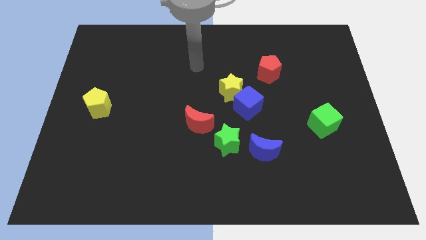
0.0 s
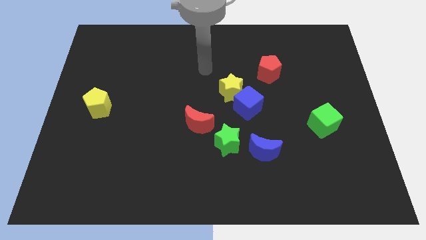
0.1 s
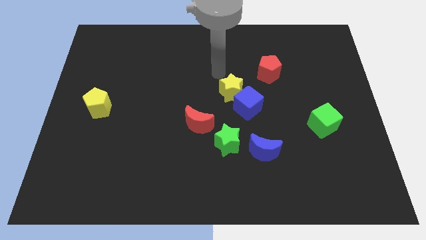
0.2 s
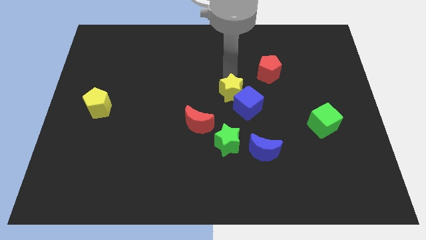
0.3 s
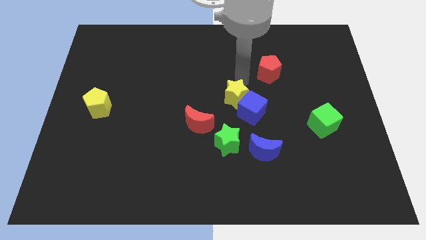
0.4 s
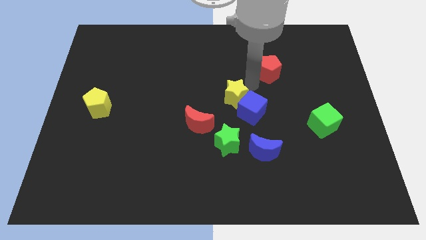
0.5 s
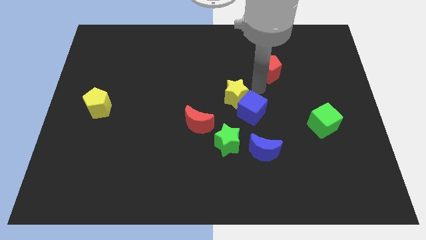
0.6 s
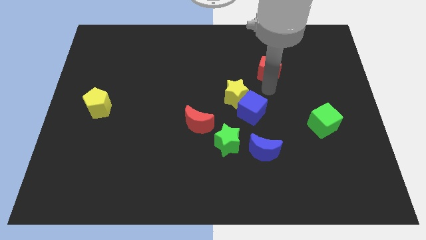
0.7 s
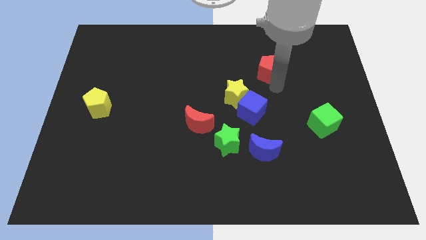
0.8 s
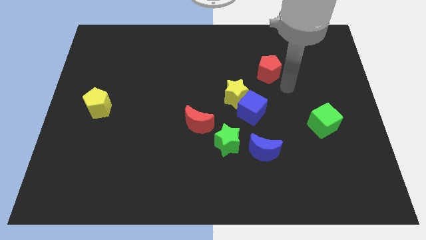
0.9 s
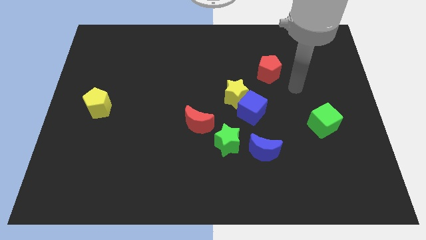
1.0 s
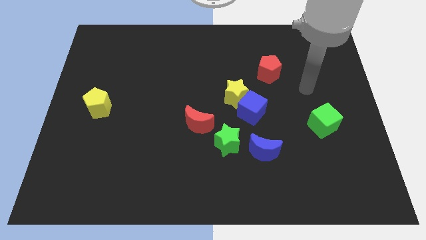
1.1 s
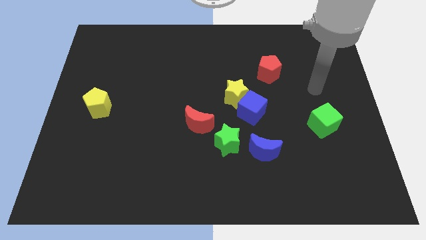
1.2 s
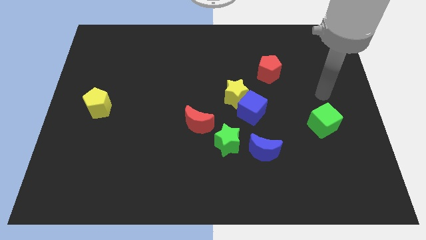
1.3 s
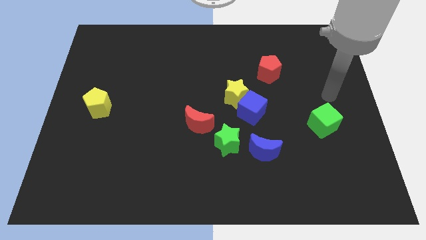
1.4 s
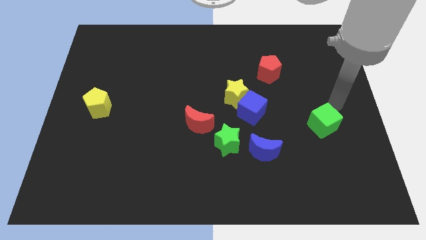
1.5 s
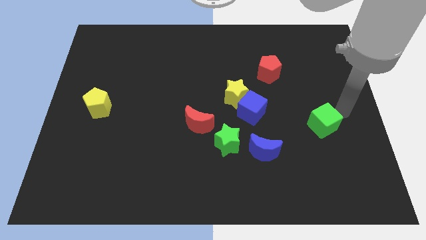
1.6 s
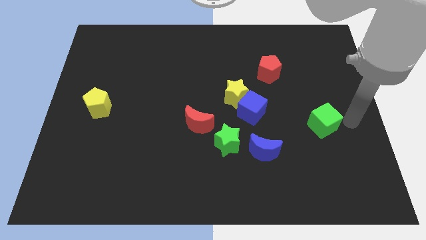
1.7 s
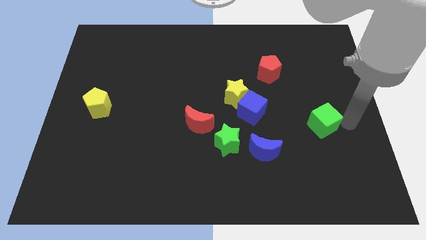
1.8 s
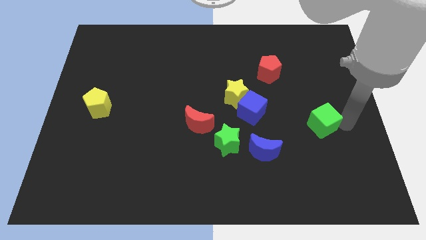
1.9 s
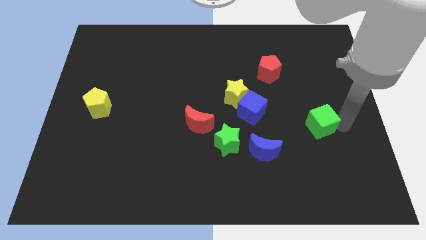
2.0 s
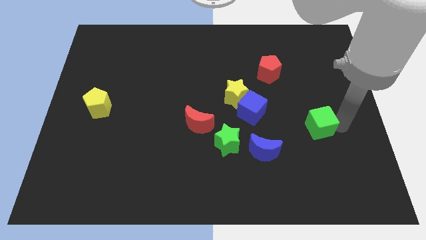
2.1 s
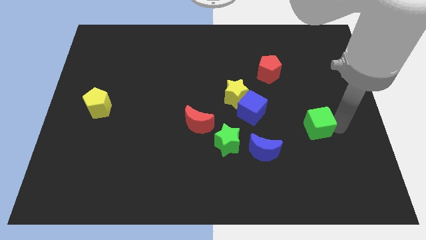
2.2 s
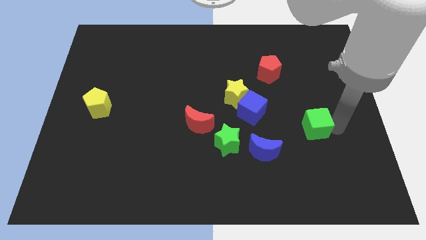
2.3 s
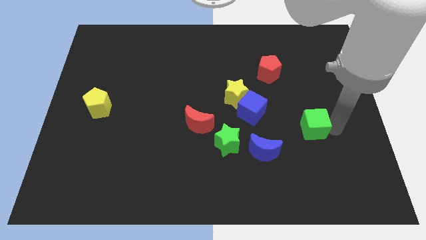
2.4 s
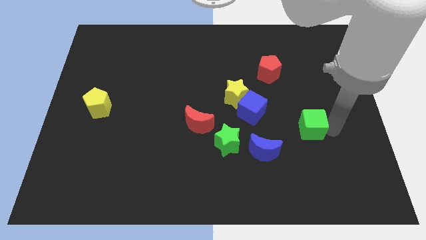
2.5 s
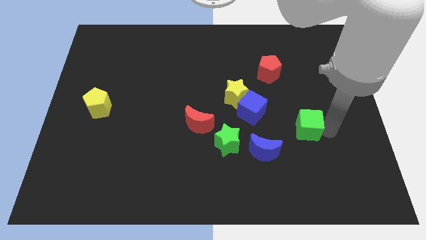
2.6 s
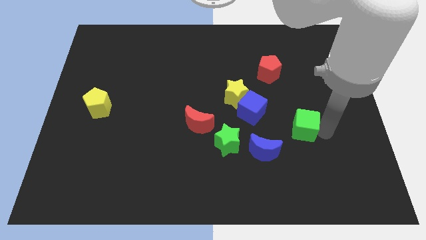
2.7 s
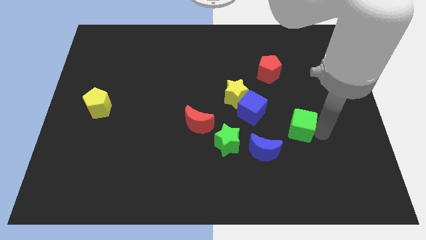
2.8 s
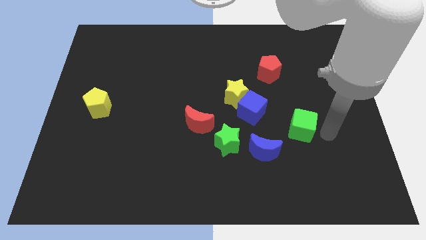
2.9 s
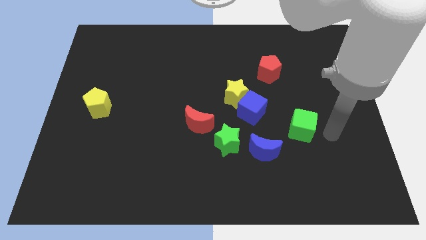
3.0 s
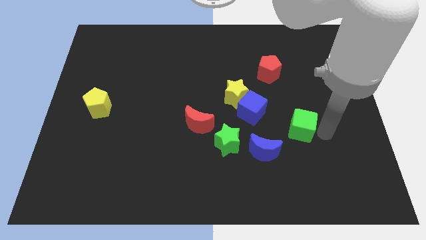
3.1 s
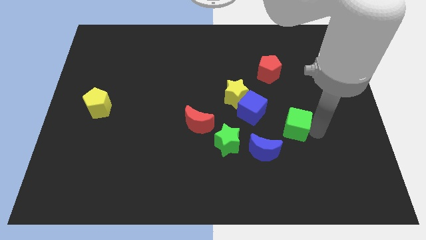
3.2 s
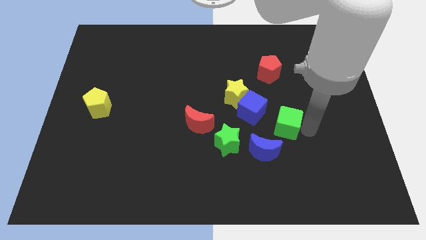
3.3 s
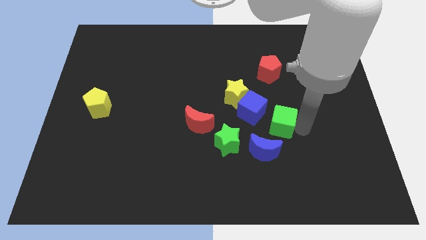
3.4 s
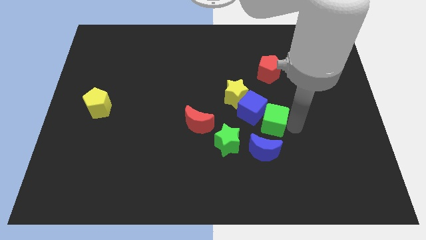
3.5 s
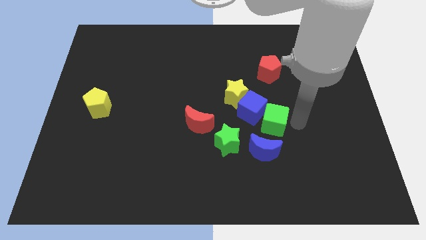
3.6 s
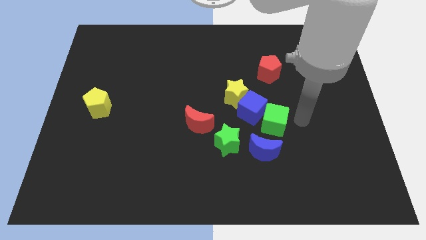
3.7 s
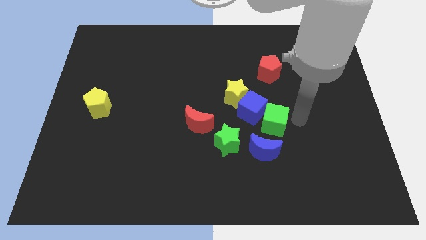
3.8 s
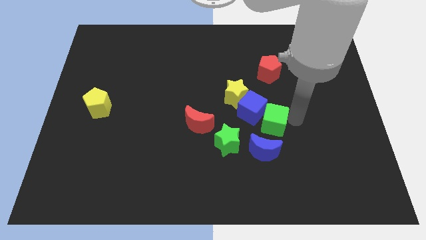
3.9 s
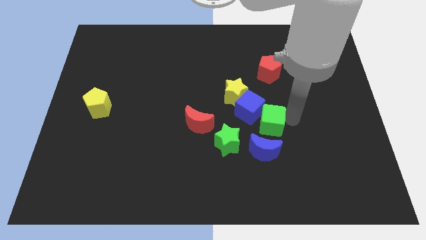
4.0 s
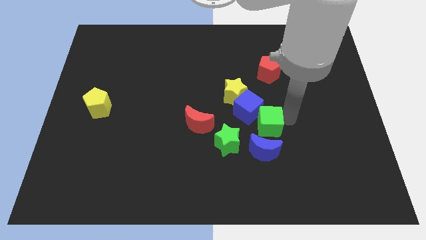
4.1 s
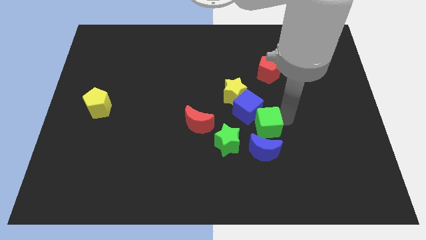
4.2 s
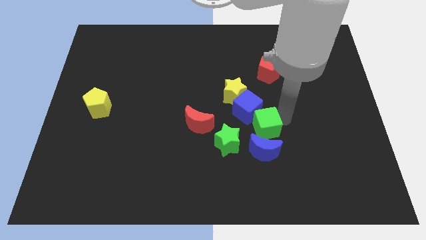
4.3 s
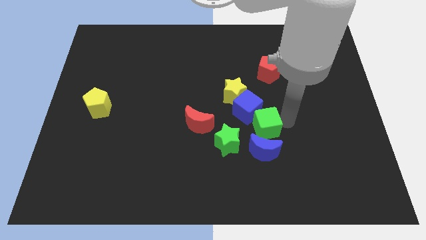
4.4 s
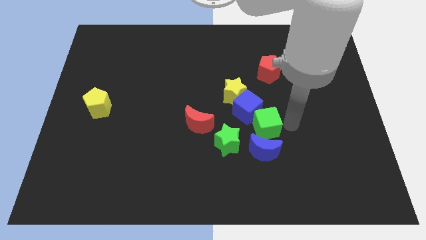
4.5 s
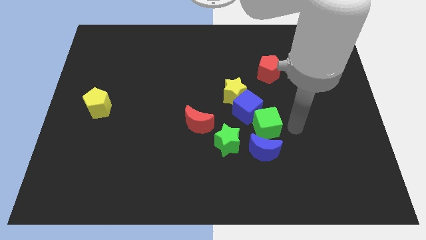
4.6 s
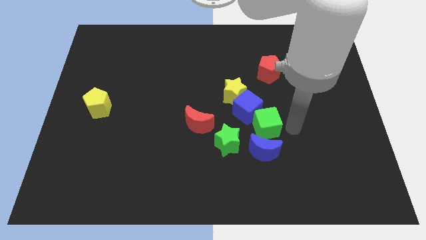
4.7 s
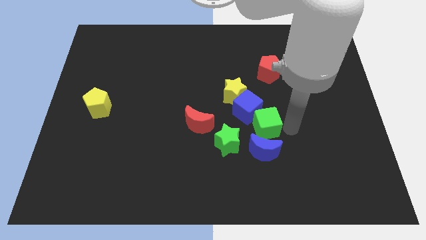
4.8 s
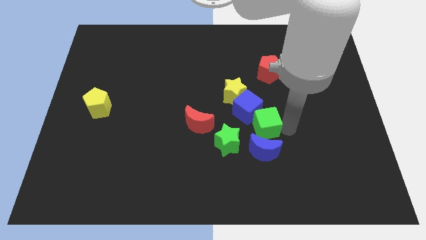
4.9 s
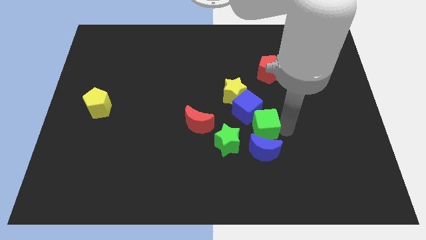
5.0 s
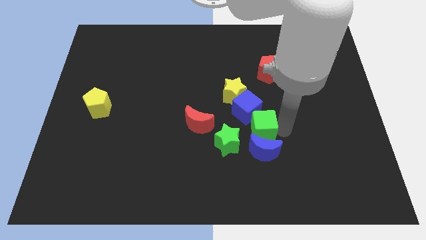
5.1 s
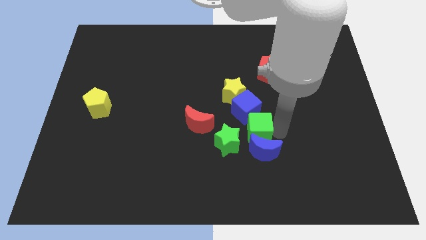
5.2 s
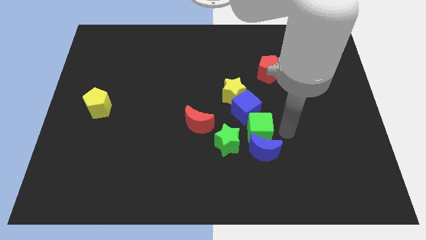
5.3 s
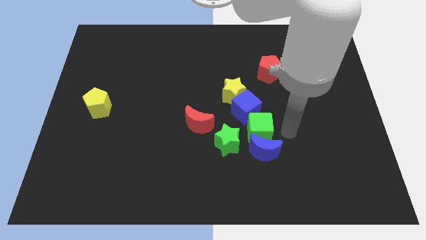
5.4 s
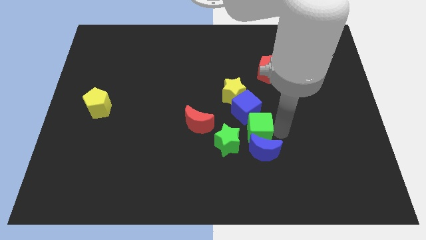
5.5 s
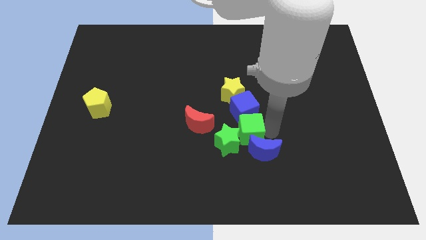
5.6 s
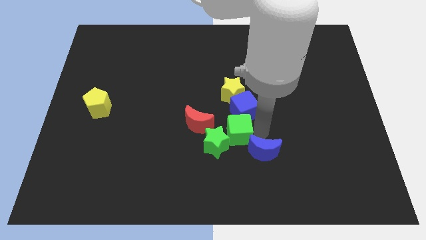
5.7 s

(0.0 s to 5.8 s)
push the green cube just left of the blue moon

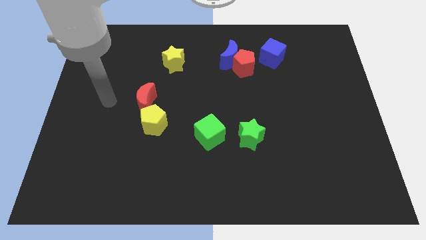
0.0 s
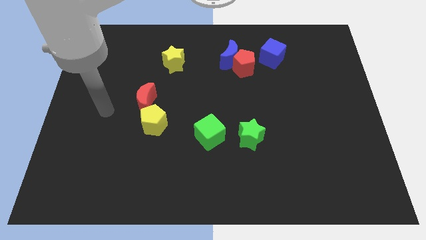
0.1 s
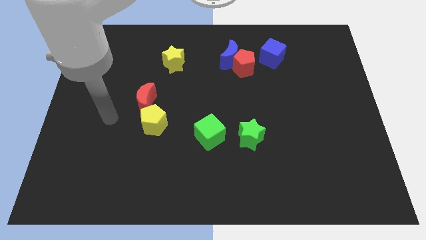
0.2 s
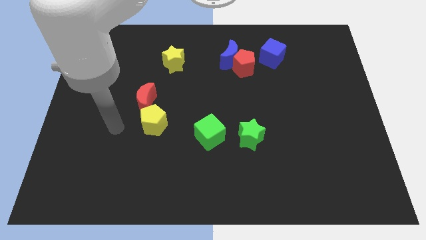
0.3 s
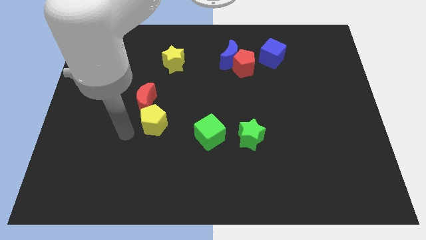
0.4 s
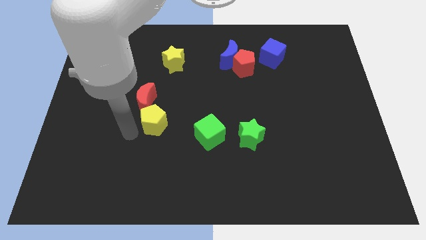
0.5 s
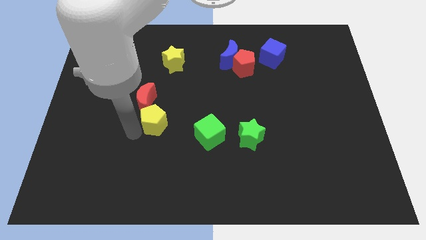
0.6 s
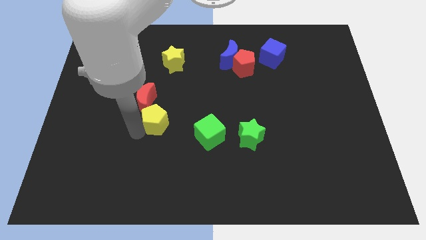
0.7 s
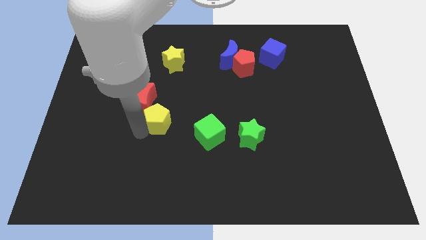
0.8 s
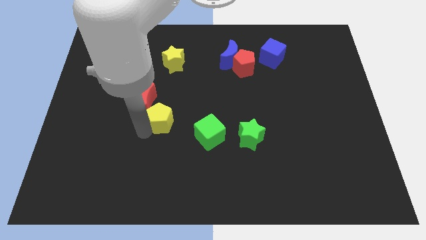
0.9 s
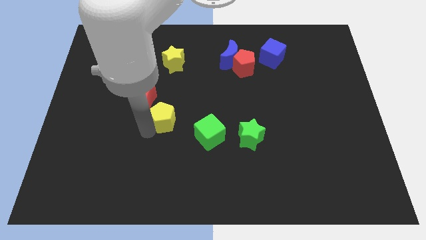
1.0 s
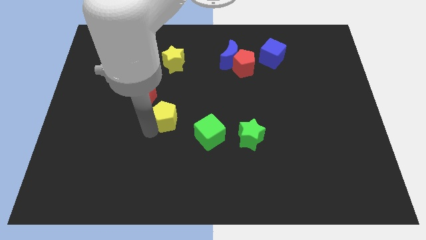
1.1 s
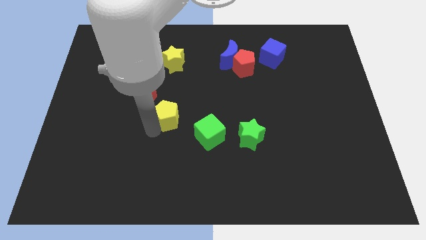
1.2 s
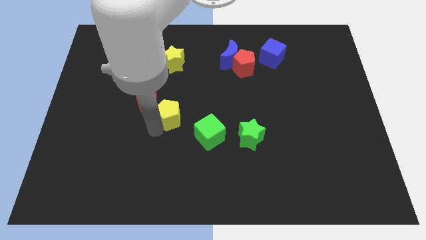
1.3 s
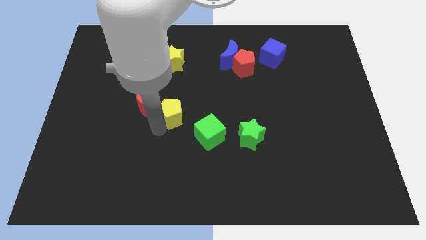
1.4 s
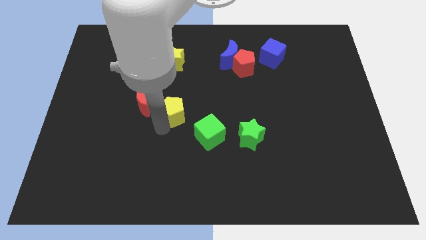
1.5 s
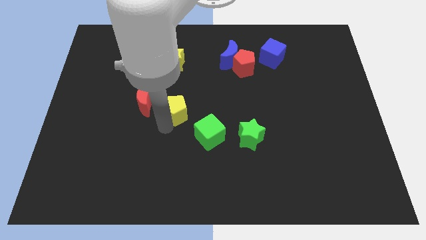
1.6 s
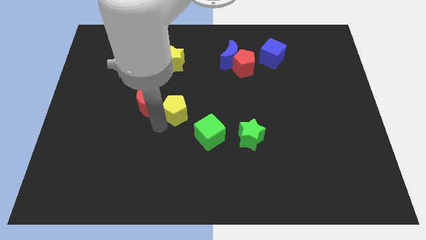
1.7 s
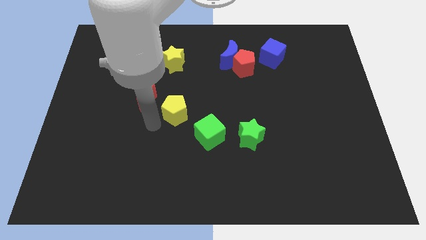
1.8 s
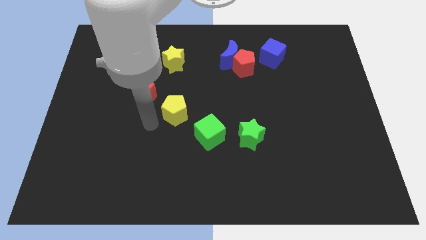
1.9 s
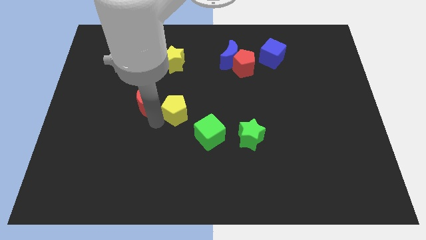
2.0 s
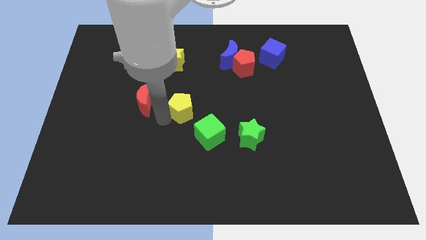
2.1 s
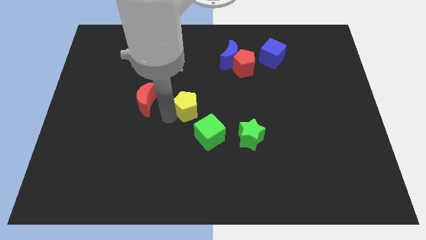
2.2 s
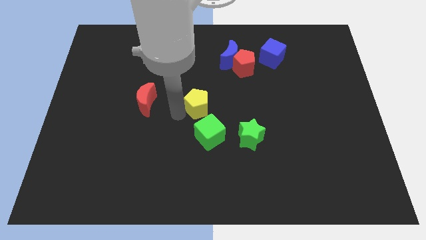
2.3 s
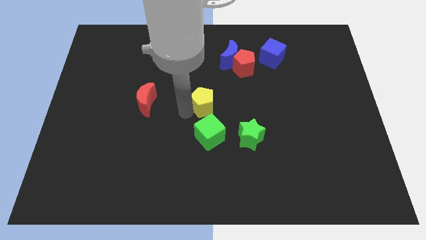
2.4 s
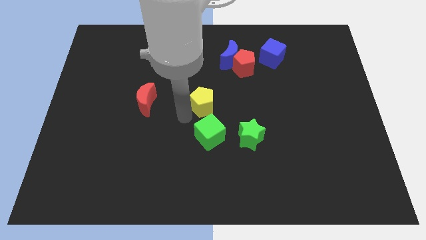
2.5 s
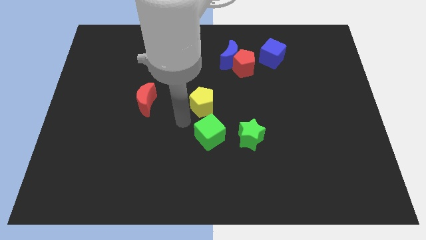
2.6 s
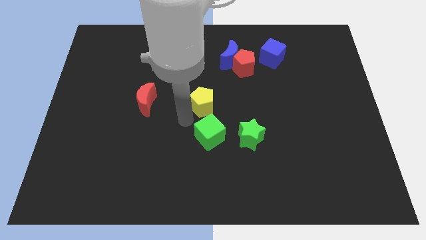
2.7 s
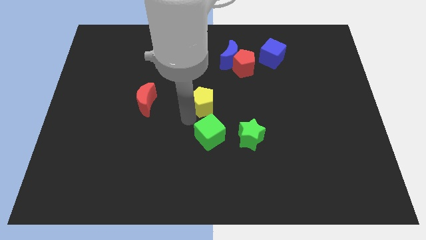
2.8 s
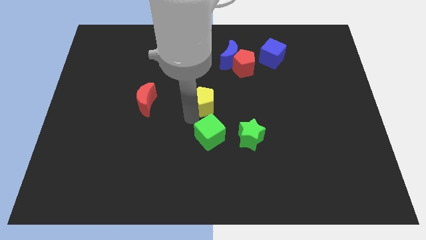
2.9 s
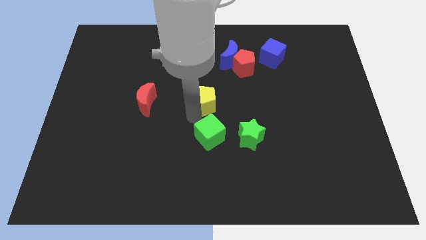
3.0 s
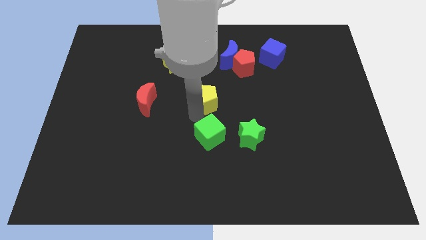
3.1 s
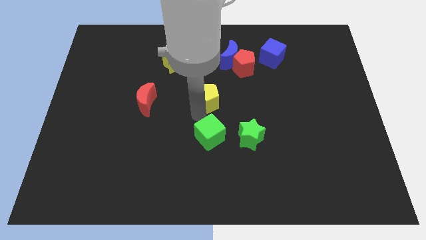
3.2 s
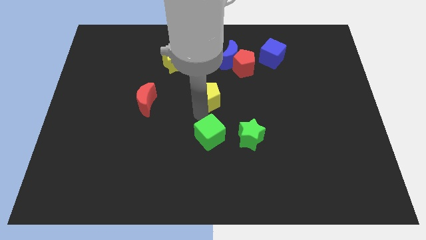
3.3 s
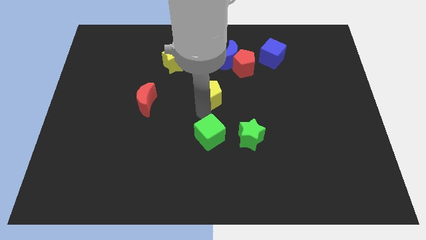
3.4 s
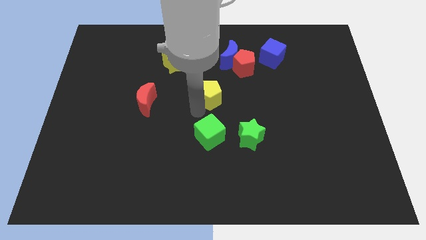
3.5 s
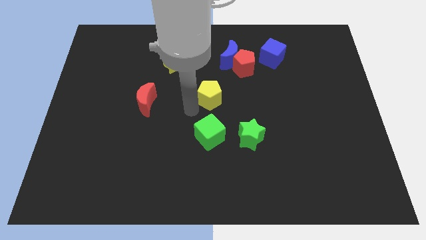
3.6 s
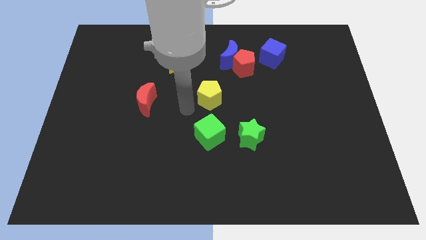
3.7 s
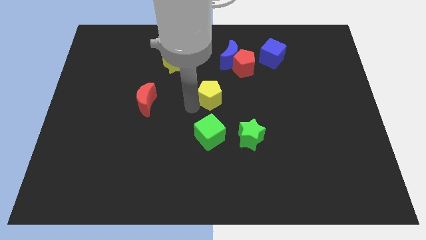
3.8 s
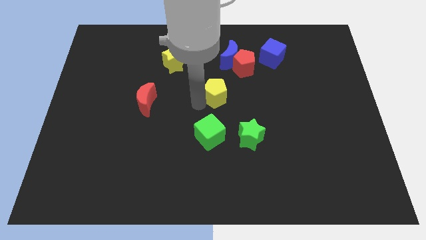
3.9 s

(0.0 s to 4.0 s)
push the yellow pentagon to the bottom side of the blue moon
